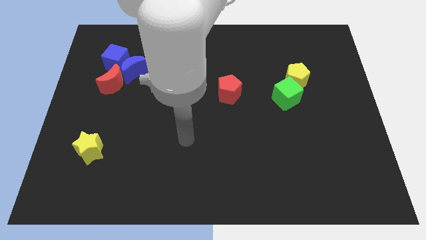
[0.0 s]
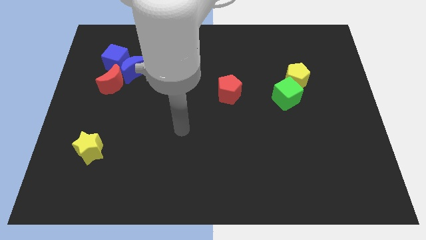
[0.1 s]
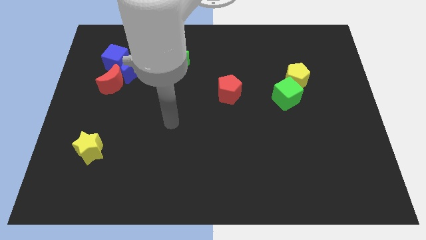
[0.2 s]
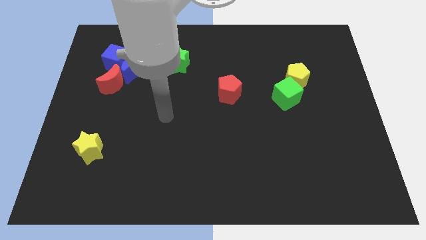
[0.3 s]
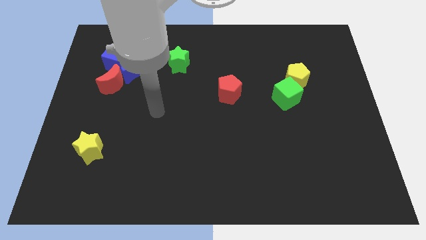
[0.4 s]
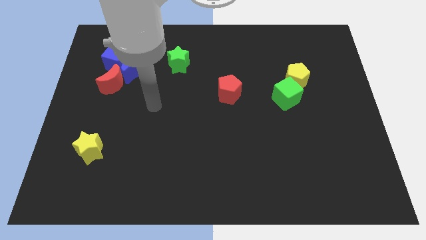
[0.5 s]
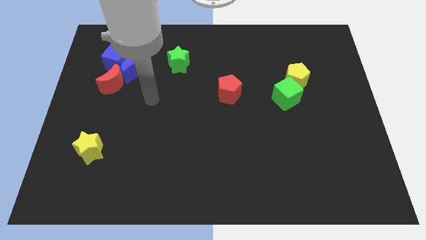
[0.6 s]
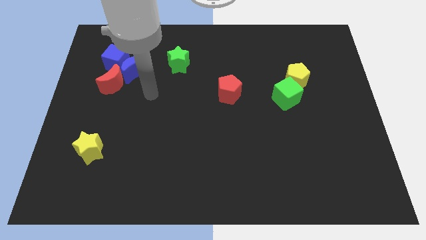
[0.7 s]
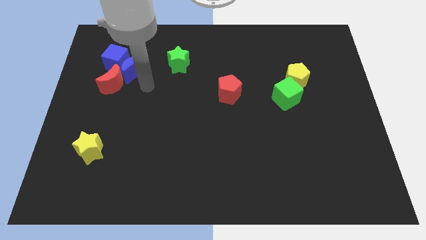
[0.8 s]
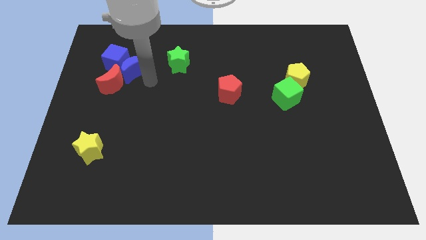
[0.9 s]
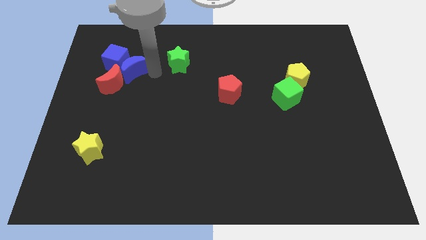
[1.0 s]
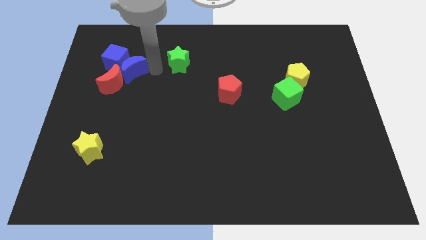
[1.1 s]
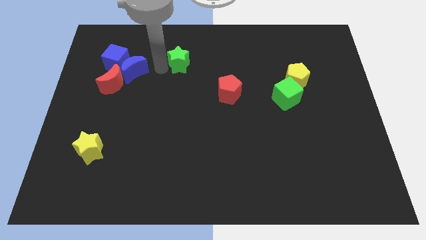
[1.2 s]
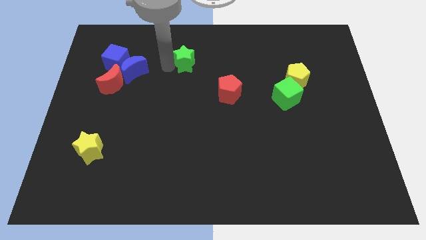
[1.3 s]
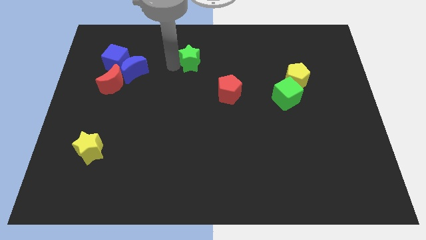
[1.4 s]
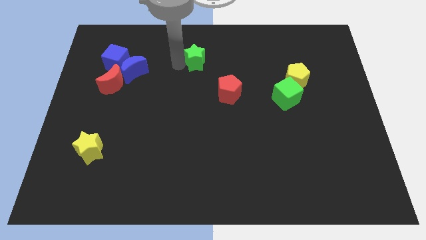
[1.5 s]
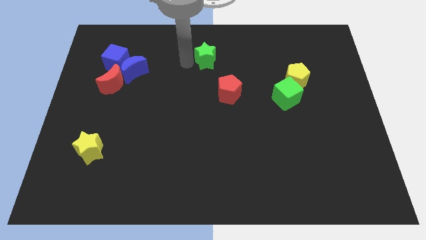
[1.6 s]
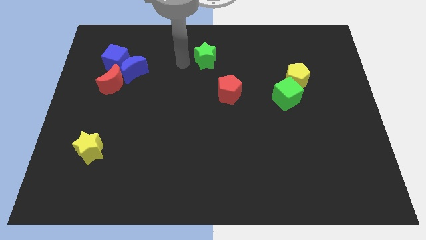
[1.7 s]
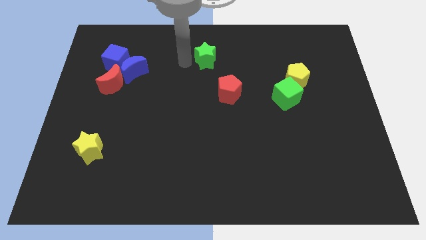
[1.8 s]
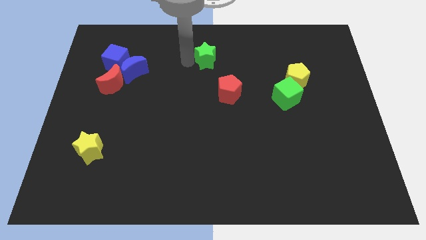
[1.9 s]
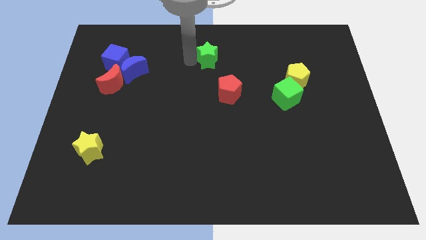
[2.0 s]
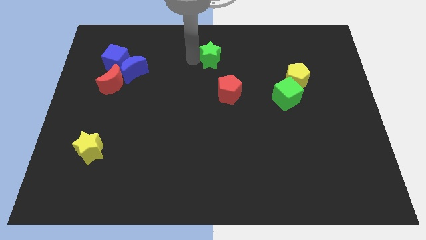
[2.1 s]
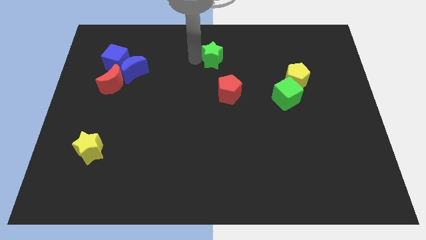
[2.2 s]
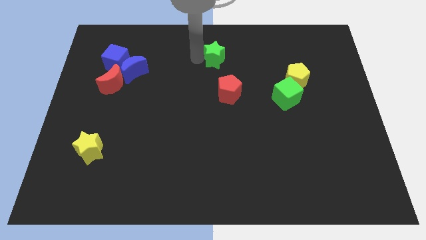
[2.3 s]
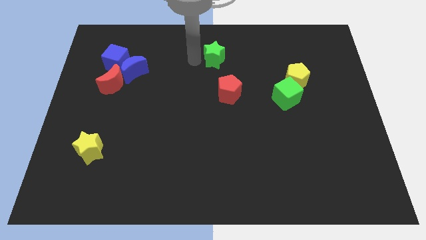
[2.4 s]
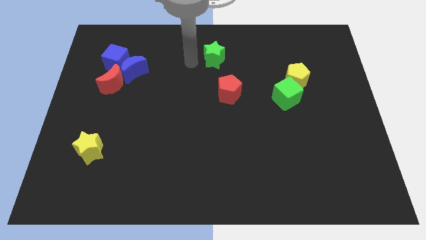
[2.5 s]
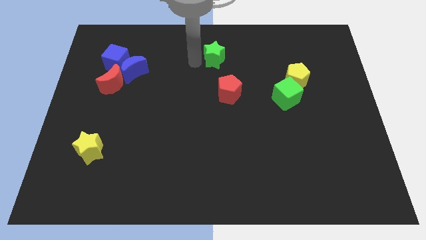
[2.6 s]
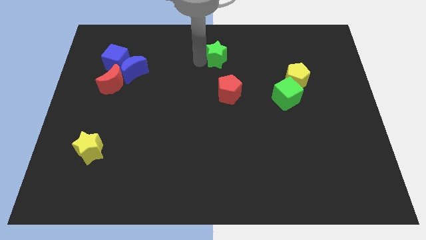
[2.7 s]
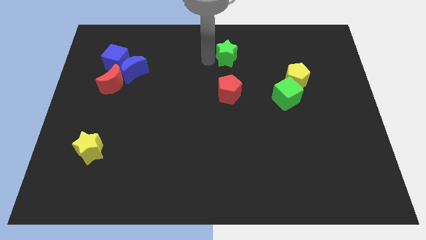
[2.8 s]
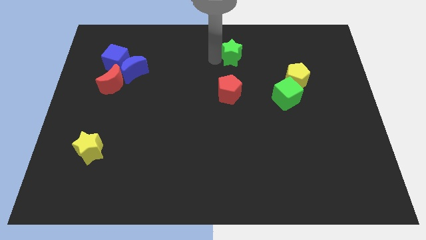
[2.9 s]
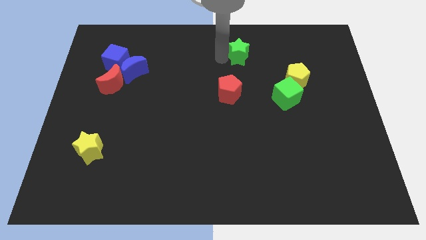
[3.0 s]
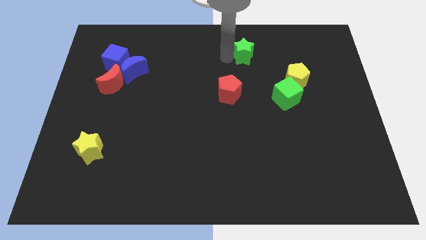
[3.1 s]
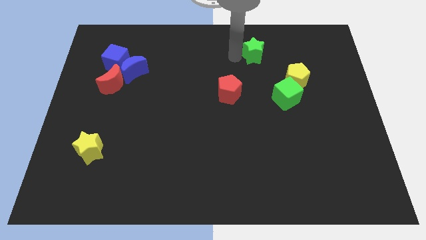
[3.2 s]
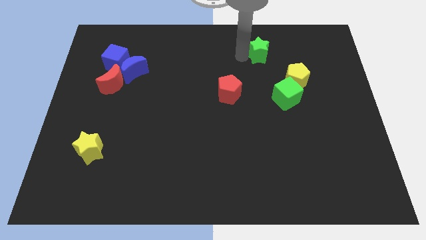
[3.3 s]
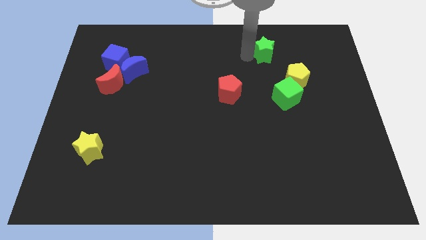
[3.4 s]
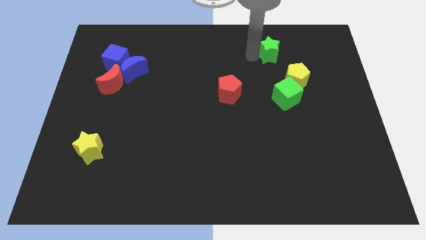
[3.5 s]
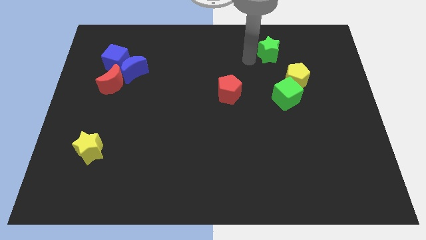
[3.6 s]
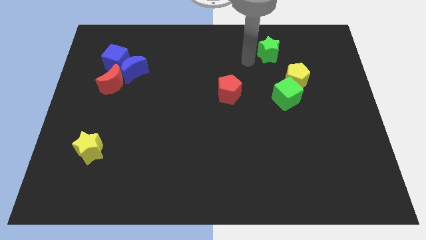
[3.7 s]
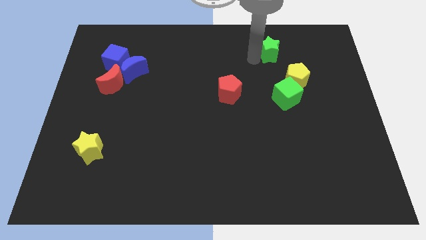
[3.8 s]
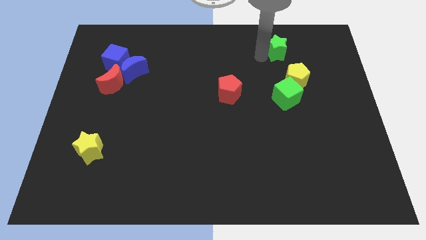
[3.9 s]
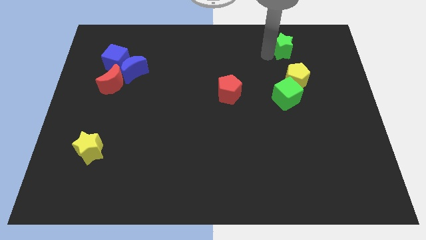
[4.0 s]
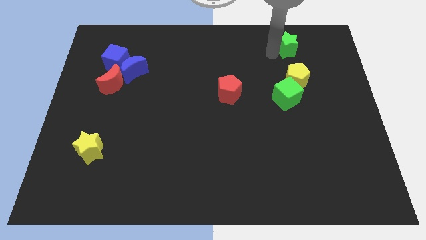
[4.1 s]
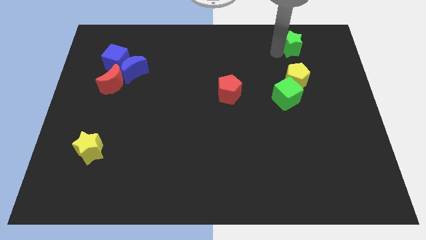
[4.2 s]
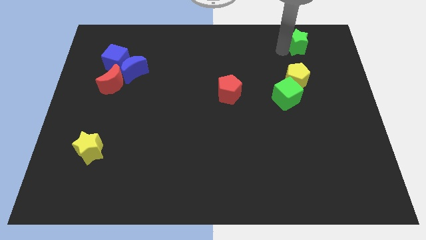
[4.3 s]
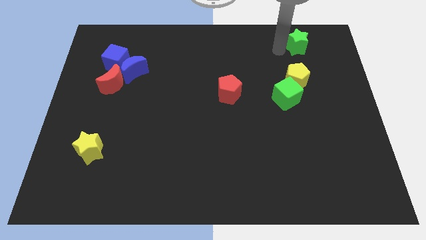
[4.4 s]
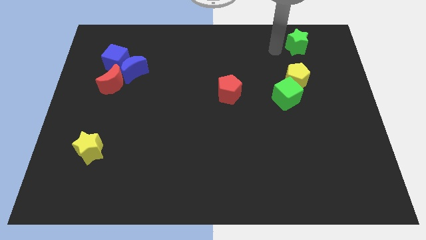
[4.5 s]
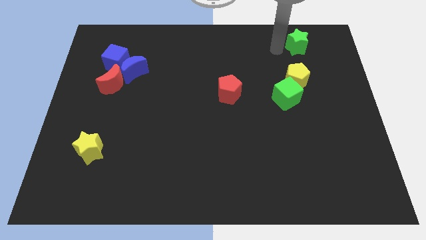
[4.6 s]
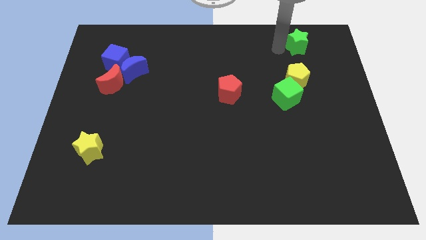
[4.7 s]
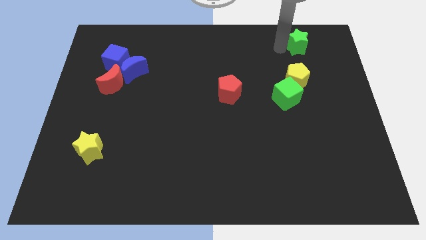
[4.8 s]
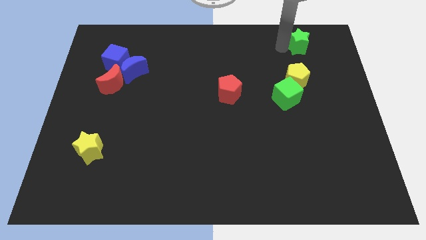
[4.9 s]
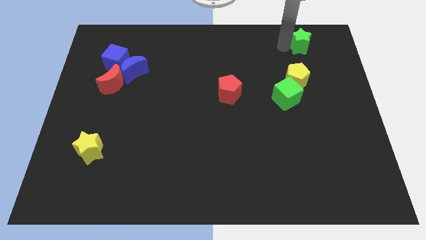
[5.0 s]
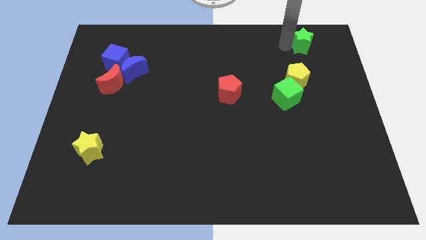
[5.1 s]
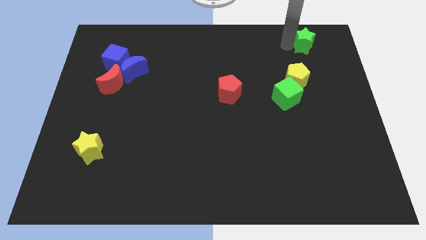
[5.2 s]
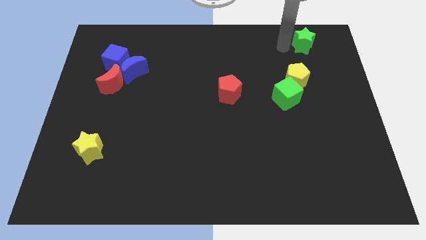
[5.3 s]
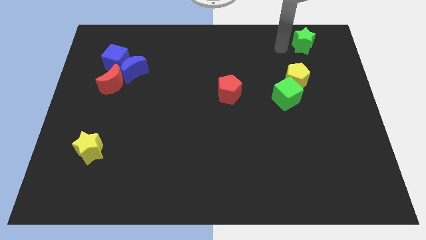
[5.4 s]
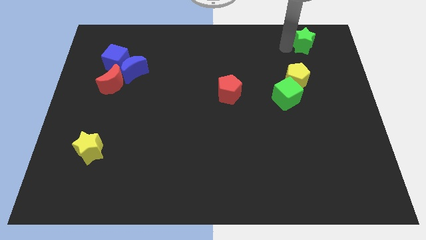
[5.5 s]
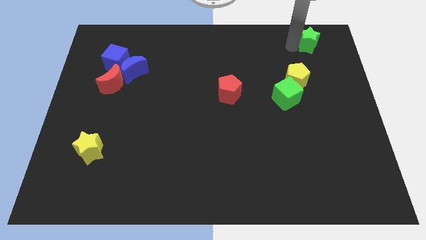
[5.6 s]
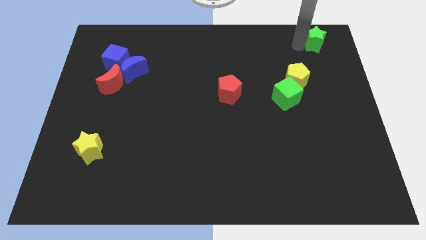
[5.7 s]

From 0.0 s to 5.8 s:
move the green star to the top right corner

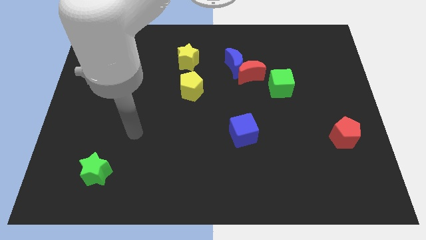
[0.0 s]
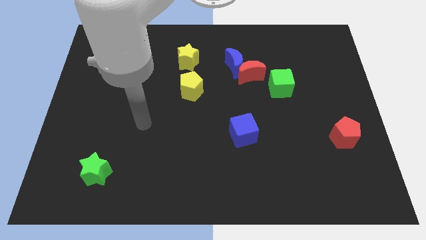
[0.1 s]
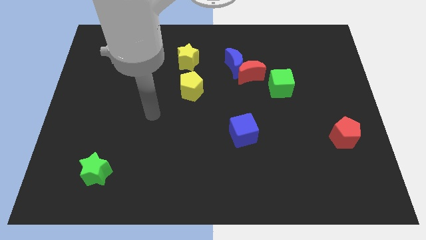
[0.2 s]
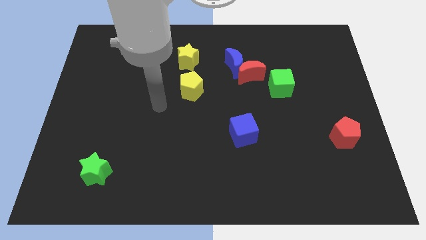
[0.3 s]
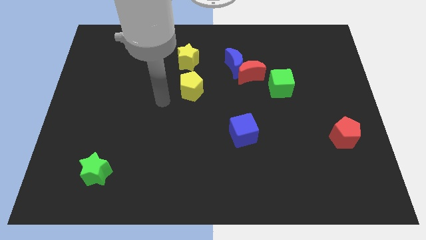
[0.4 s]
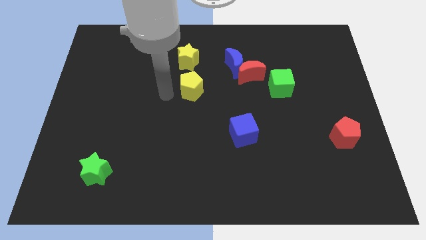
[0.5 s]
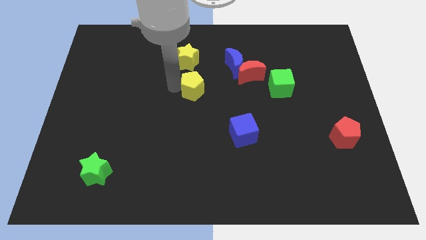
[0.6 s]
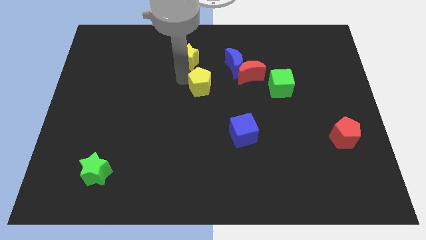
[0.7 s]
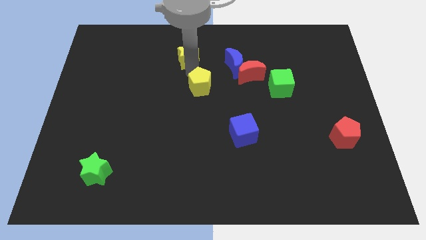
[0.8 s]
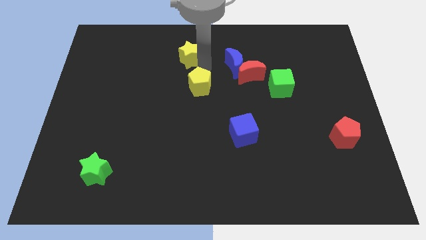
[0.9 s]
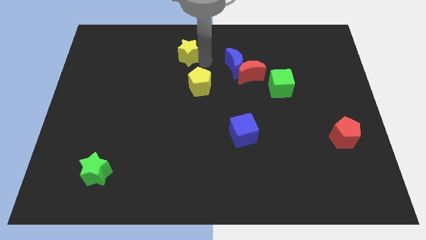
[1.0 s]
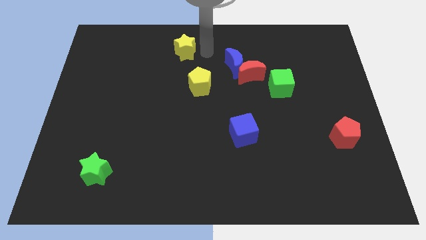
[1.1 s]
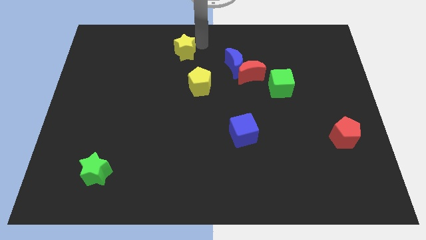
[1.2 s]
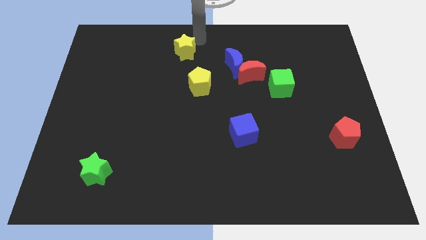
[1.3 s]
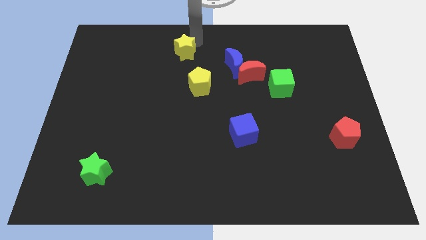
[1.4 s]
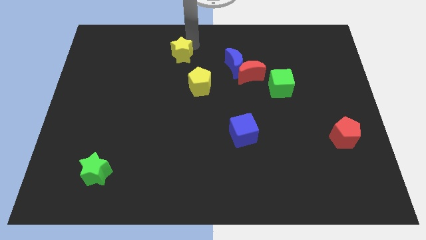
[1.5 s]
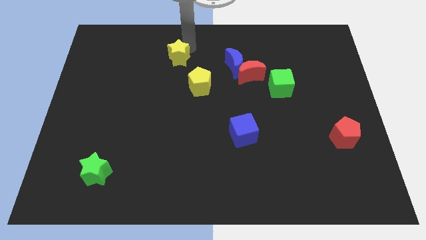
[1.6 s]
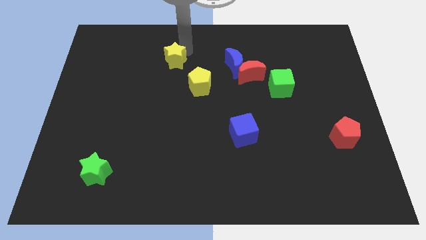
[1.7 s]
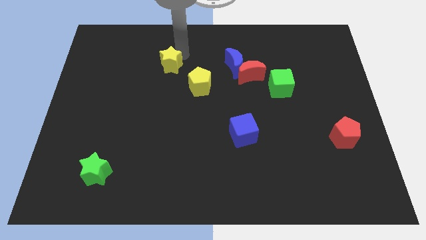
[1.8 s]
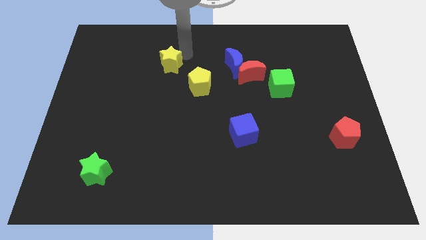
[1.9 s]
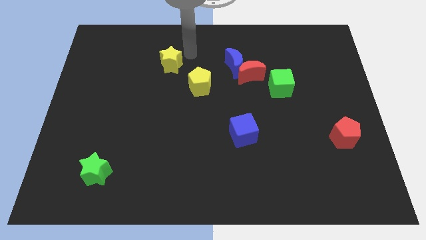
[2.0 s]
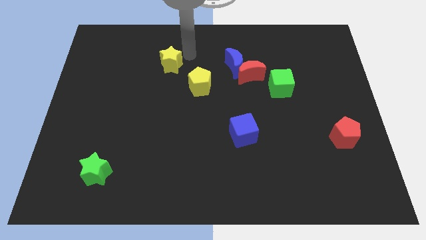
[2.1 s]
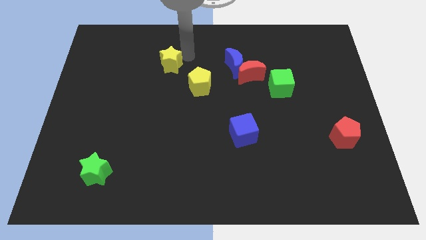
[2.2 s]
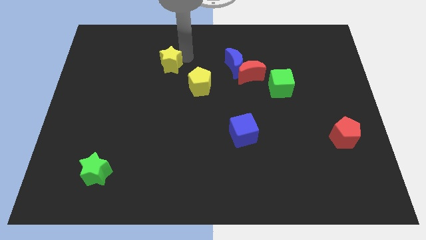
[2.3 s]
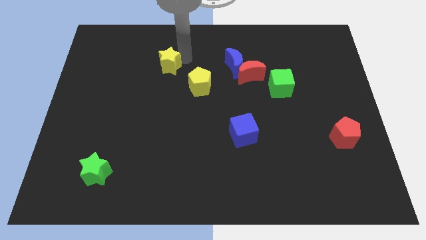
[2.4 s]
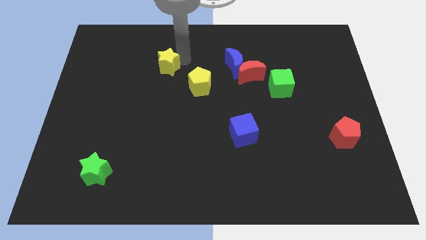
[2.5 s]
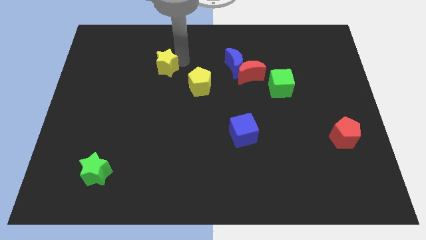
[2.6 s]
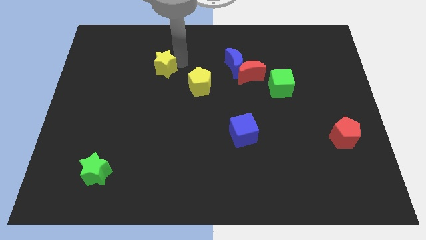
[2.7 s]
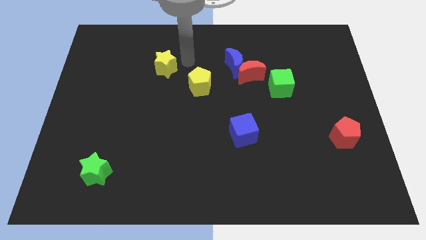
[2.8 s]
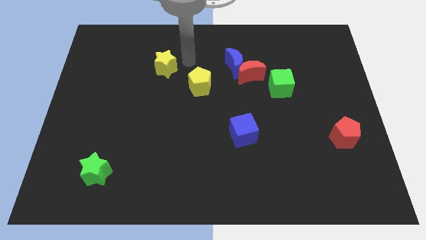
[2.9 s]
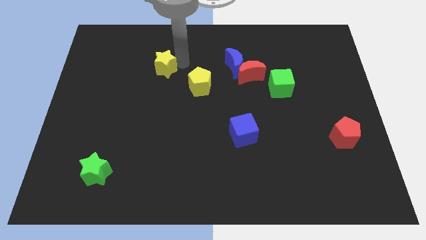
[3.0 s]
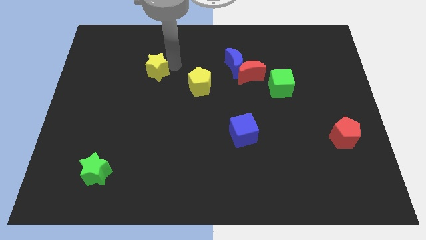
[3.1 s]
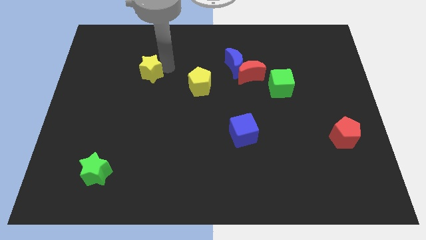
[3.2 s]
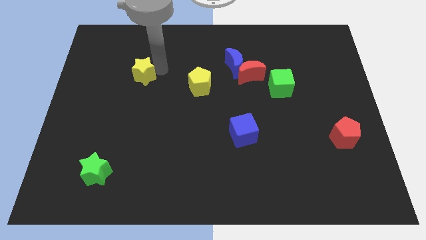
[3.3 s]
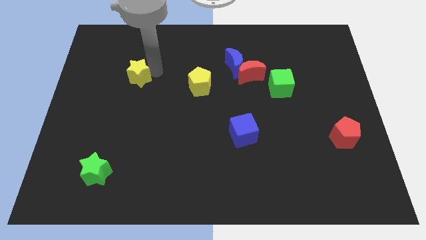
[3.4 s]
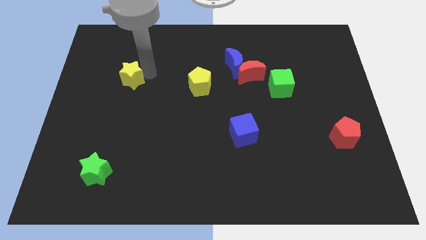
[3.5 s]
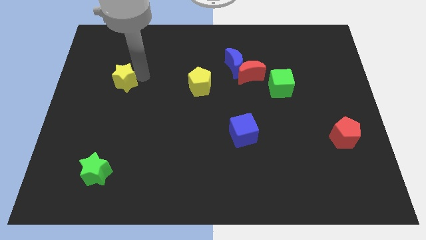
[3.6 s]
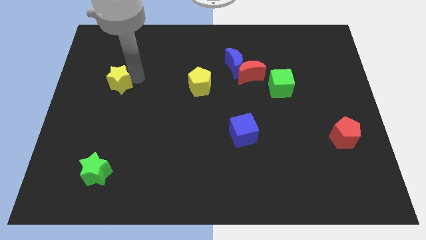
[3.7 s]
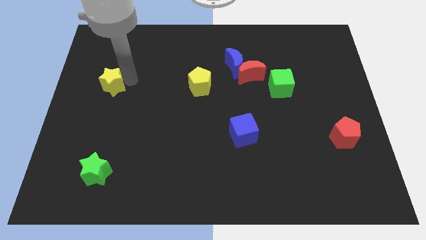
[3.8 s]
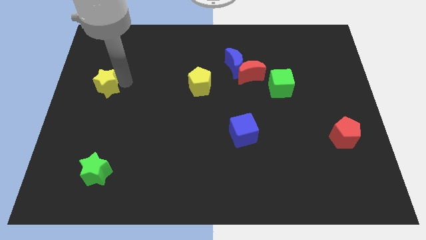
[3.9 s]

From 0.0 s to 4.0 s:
push the yellow star to the center left
